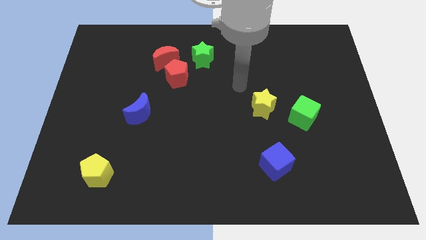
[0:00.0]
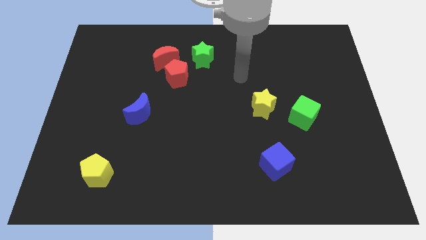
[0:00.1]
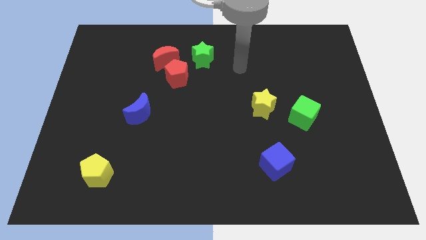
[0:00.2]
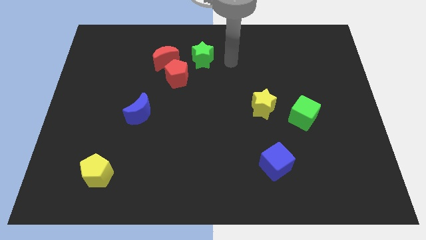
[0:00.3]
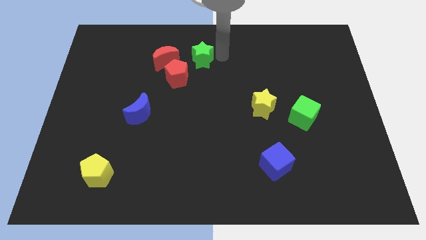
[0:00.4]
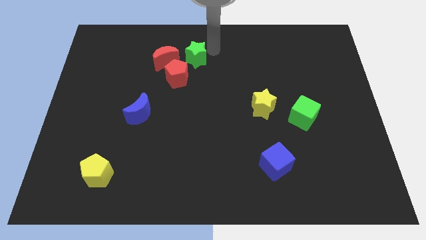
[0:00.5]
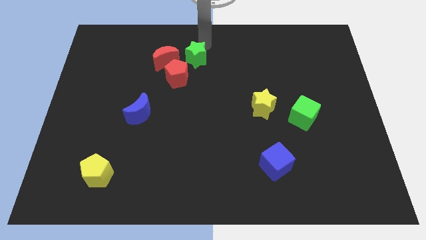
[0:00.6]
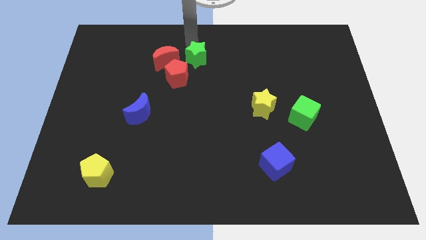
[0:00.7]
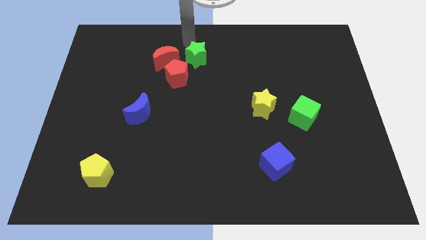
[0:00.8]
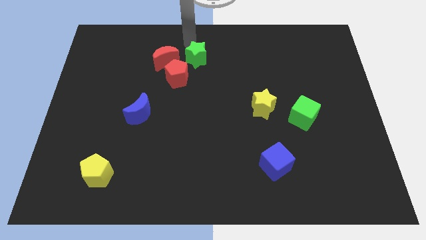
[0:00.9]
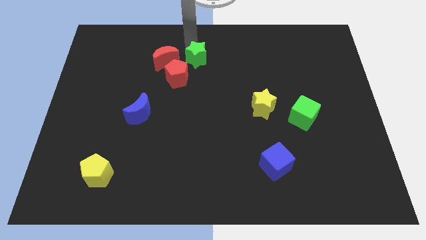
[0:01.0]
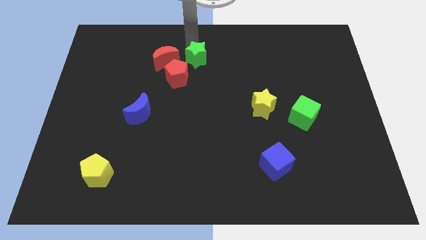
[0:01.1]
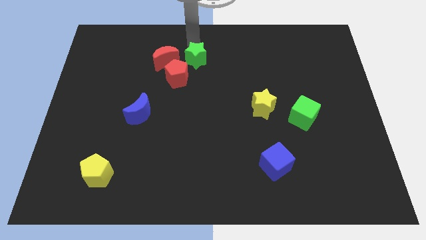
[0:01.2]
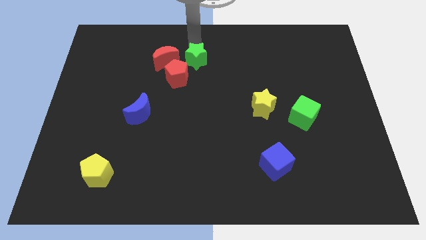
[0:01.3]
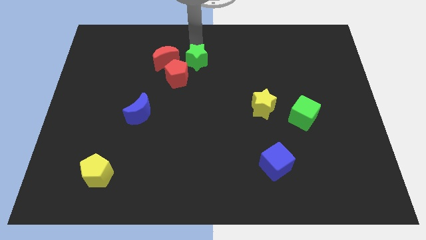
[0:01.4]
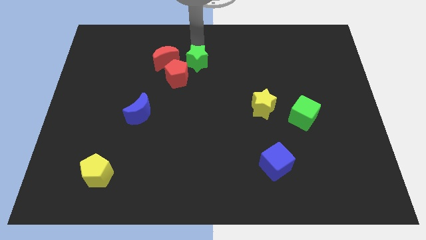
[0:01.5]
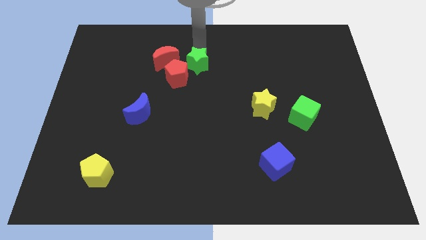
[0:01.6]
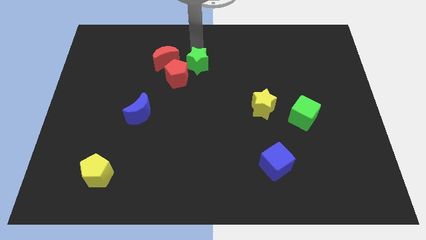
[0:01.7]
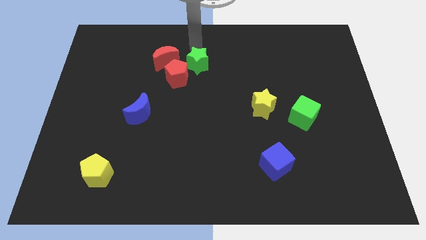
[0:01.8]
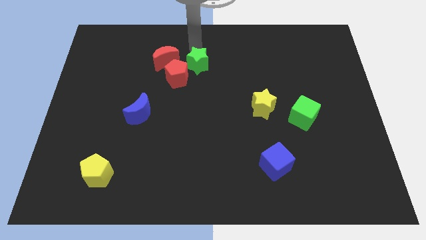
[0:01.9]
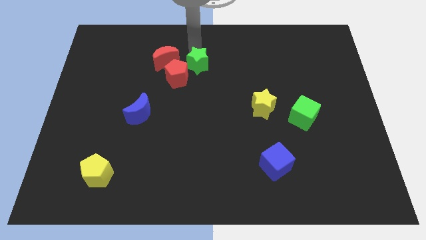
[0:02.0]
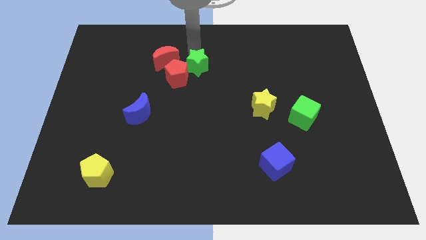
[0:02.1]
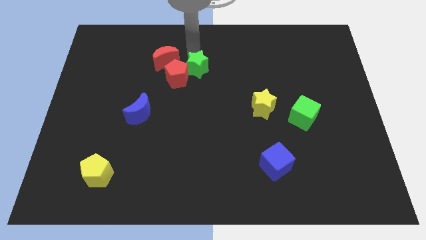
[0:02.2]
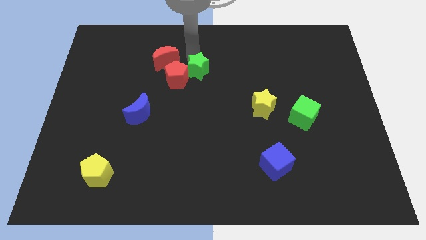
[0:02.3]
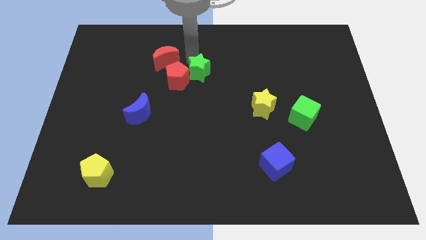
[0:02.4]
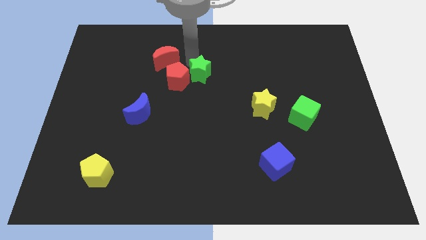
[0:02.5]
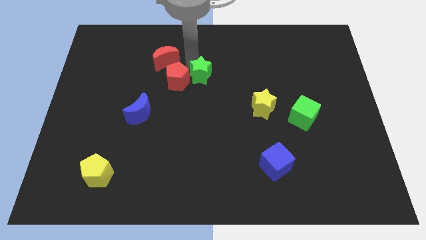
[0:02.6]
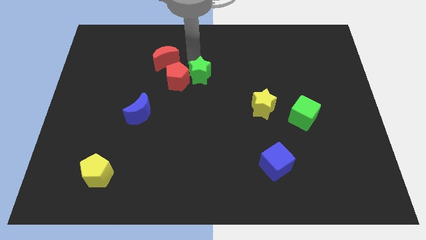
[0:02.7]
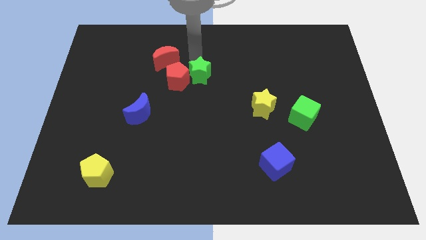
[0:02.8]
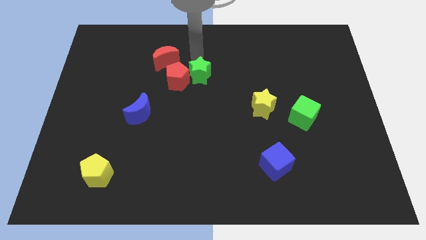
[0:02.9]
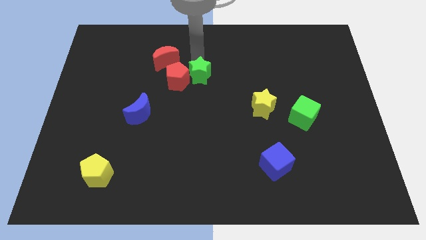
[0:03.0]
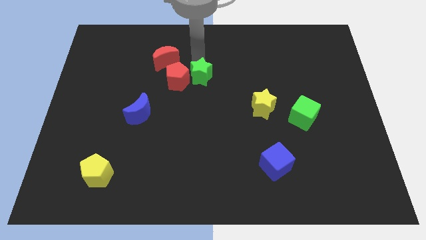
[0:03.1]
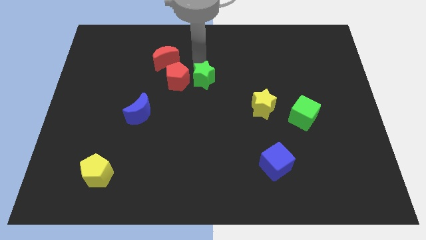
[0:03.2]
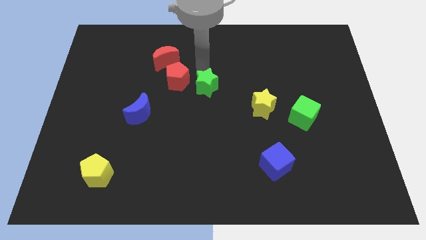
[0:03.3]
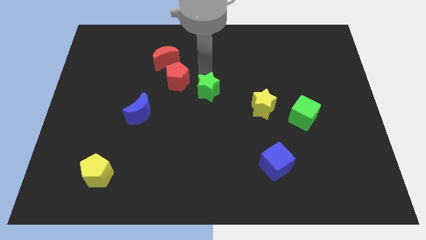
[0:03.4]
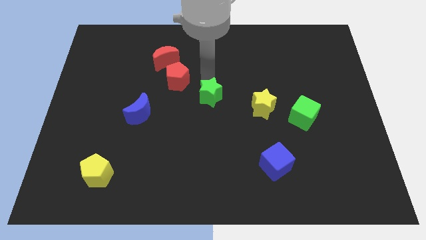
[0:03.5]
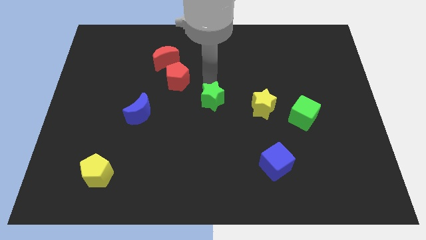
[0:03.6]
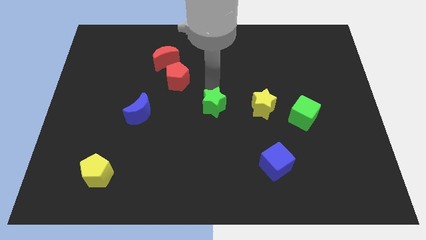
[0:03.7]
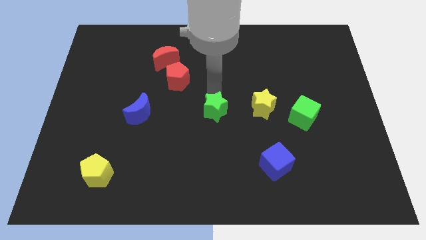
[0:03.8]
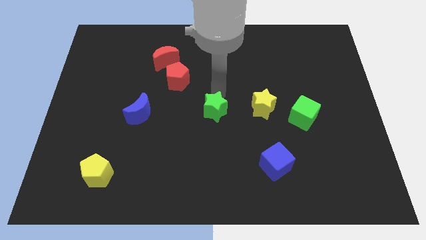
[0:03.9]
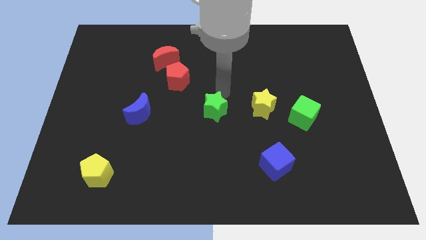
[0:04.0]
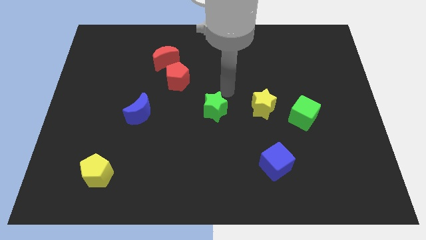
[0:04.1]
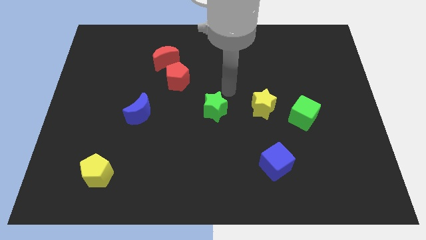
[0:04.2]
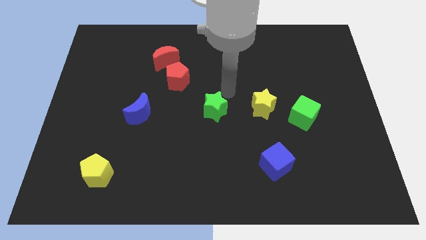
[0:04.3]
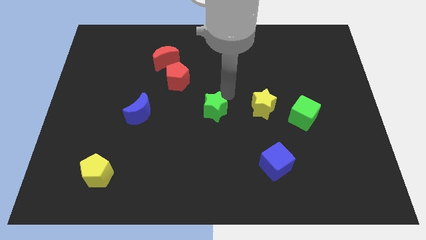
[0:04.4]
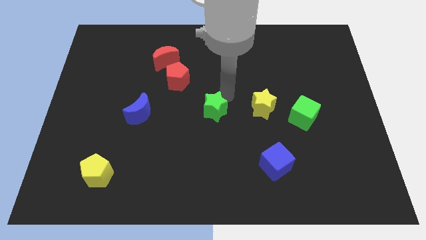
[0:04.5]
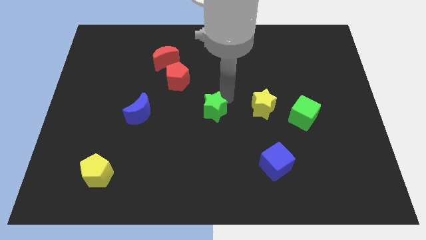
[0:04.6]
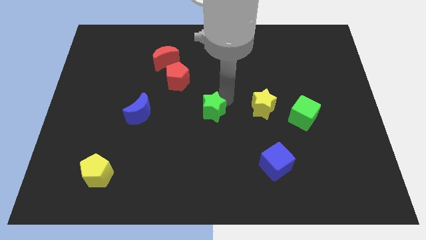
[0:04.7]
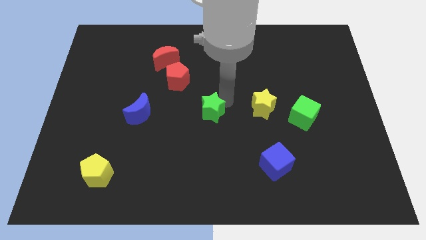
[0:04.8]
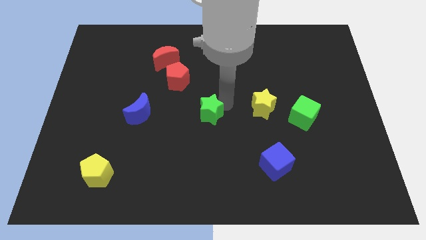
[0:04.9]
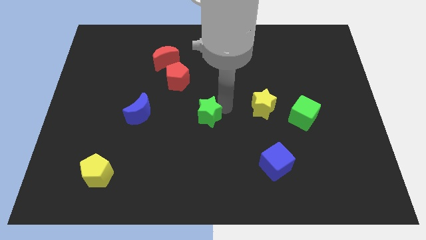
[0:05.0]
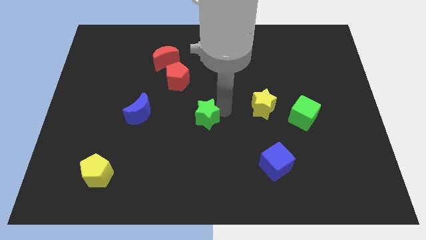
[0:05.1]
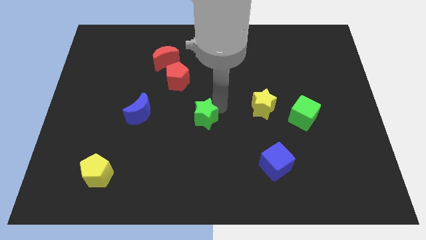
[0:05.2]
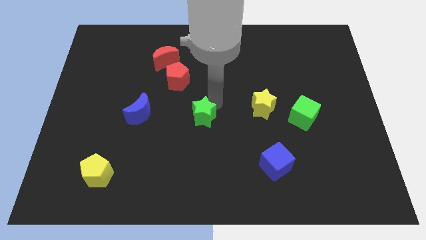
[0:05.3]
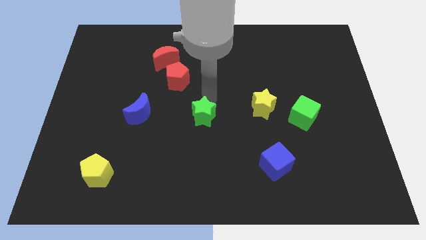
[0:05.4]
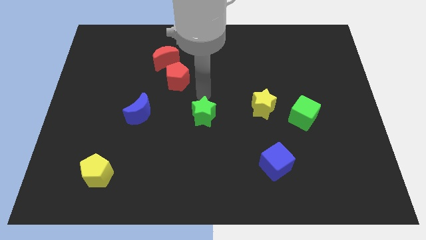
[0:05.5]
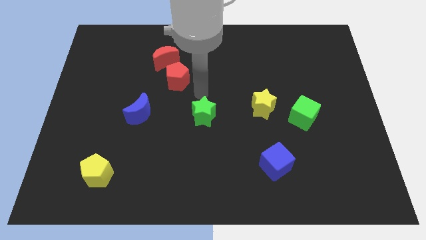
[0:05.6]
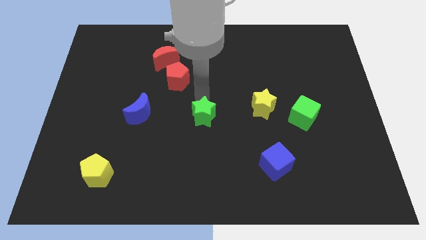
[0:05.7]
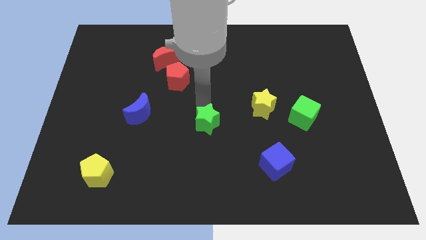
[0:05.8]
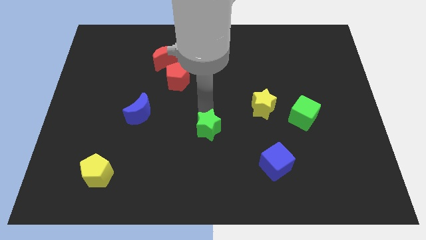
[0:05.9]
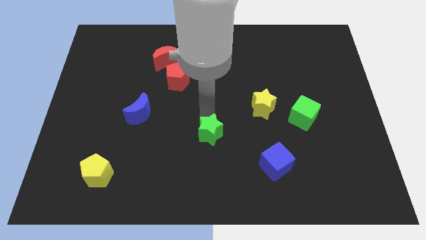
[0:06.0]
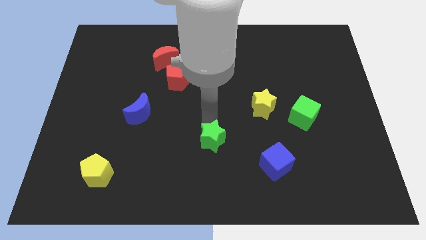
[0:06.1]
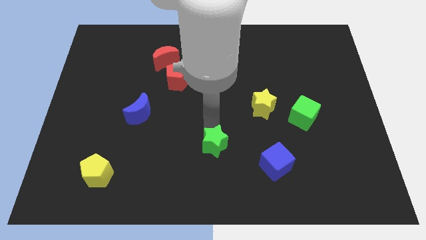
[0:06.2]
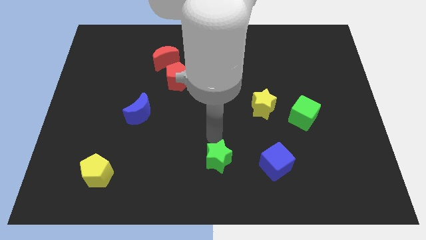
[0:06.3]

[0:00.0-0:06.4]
slide the green star to the bottom side
